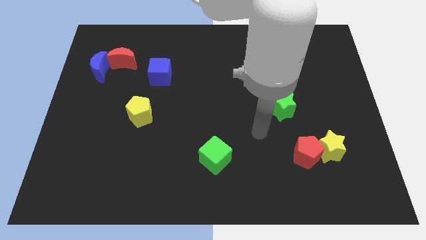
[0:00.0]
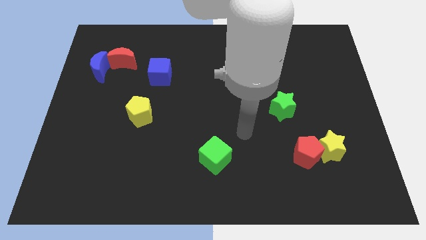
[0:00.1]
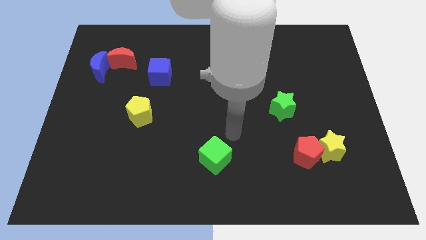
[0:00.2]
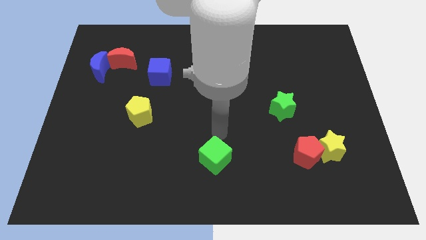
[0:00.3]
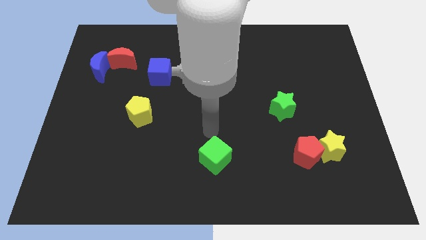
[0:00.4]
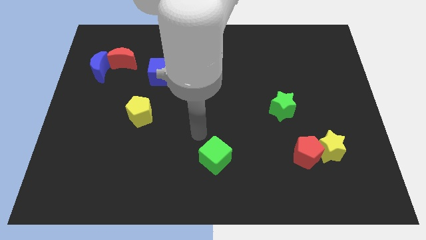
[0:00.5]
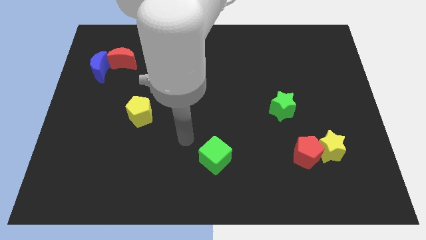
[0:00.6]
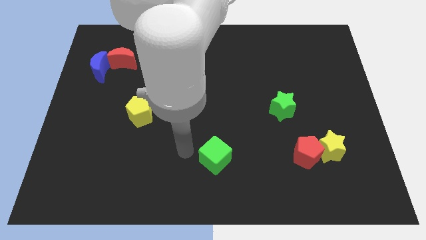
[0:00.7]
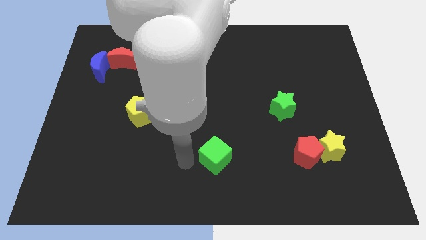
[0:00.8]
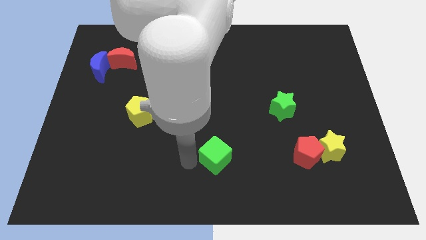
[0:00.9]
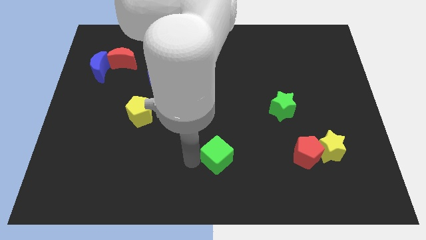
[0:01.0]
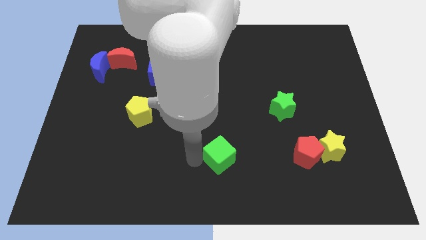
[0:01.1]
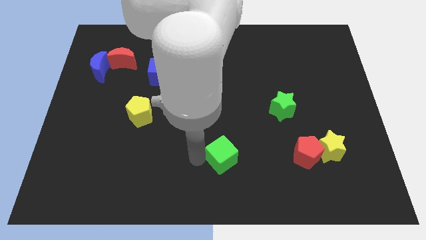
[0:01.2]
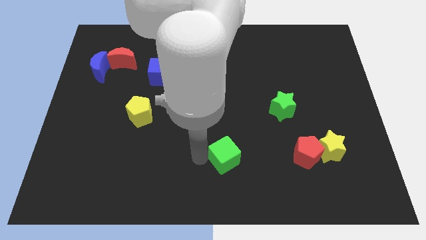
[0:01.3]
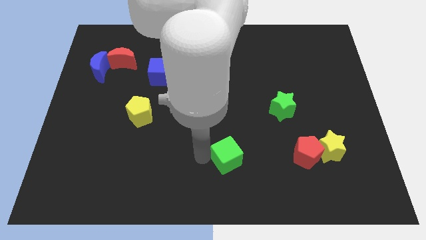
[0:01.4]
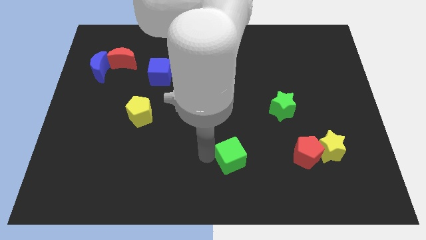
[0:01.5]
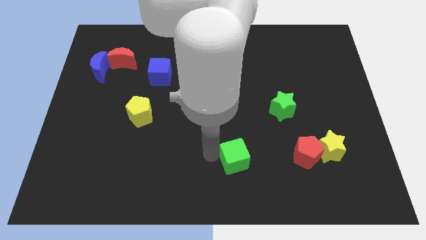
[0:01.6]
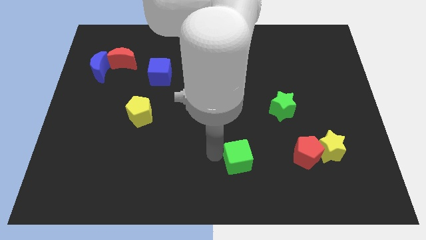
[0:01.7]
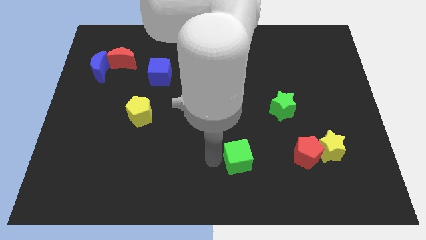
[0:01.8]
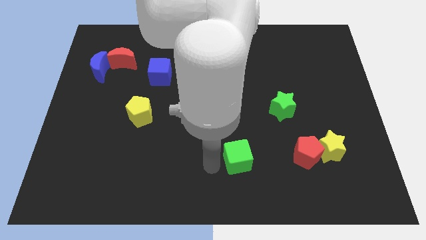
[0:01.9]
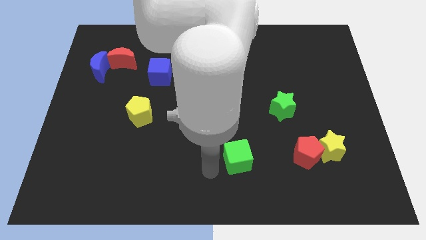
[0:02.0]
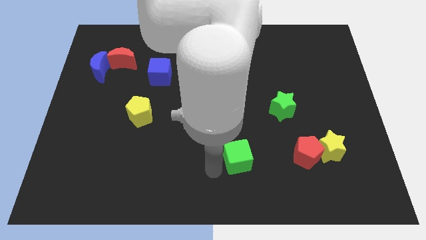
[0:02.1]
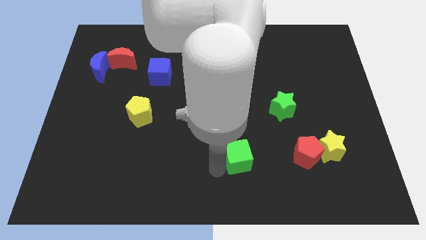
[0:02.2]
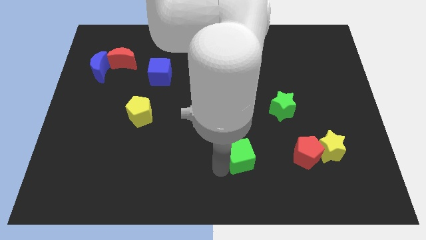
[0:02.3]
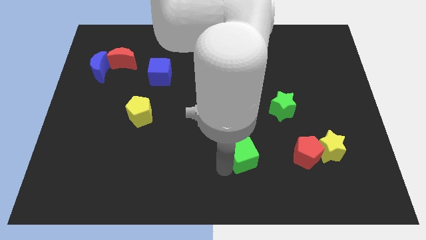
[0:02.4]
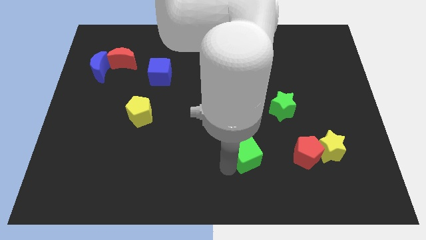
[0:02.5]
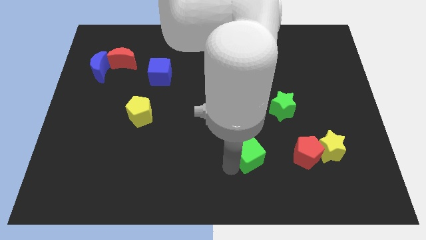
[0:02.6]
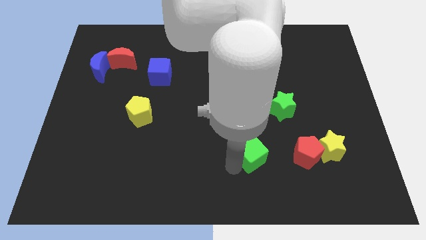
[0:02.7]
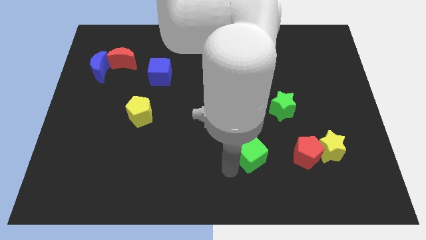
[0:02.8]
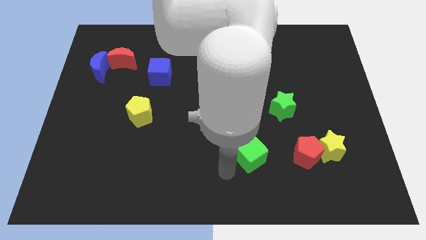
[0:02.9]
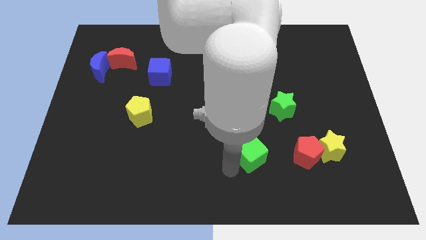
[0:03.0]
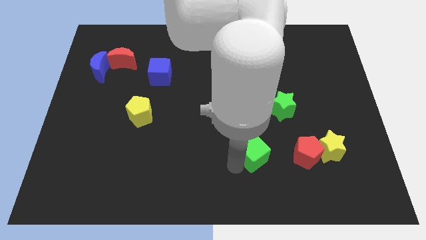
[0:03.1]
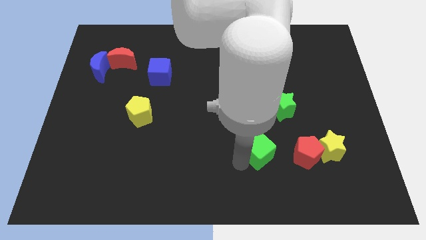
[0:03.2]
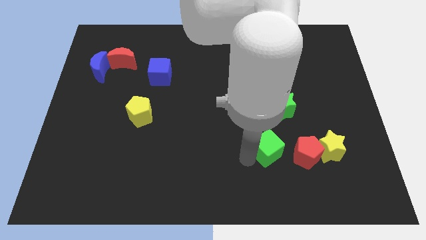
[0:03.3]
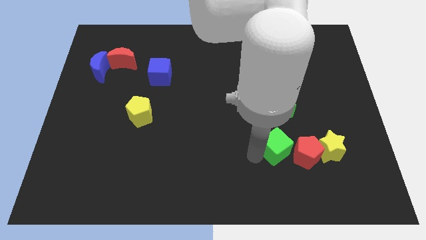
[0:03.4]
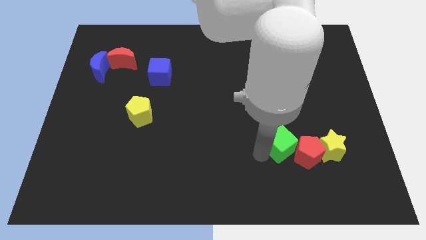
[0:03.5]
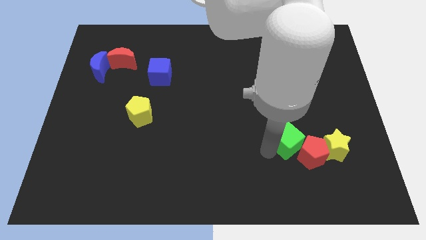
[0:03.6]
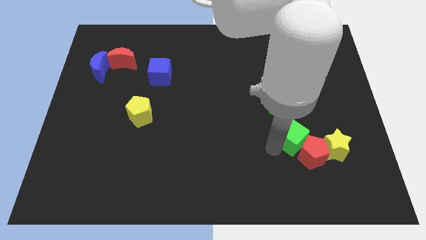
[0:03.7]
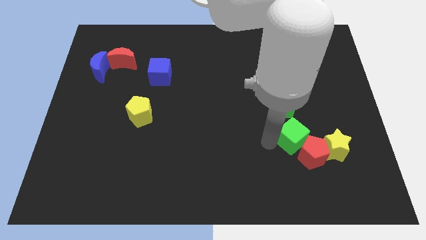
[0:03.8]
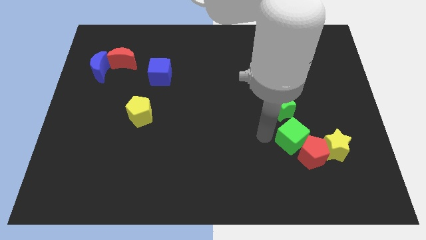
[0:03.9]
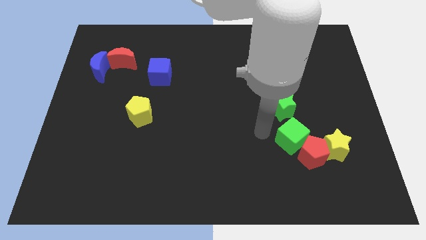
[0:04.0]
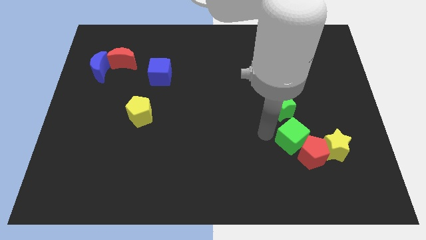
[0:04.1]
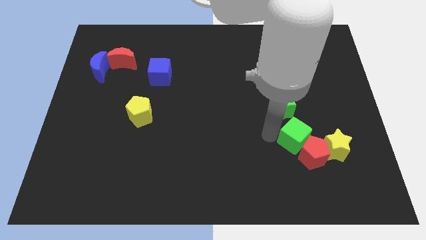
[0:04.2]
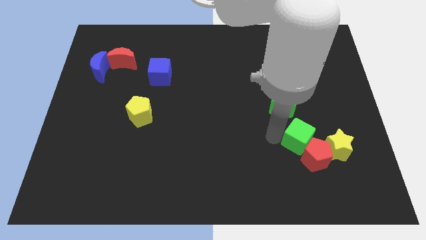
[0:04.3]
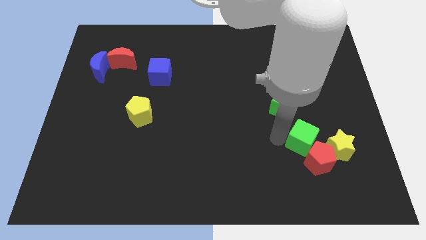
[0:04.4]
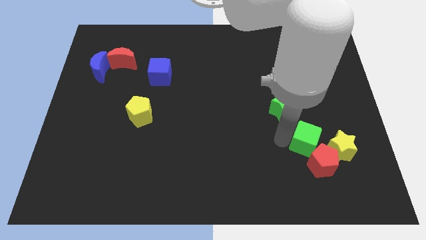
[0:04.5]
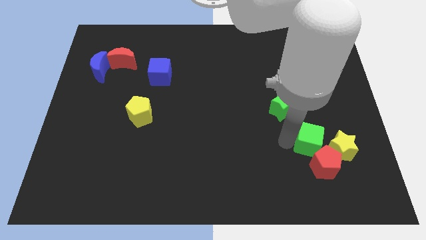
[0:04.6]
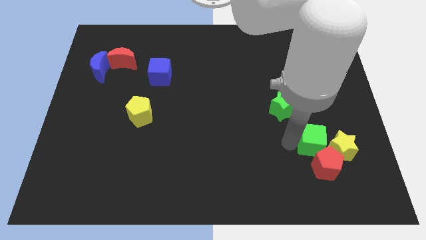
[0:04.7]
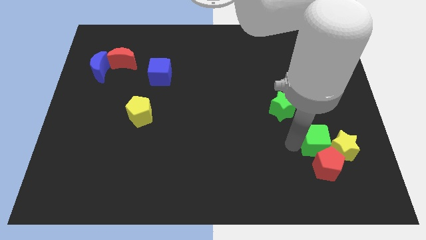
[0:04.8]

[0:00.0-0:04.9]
push the green cube to the yellow star

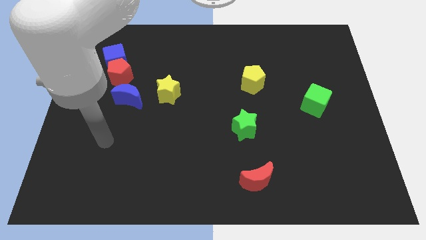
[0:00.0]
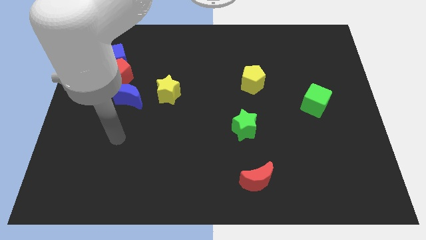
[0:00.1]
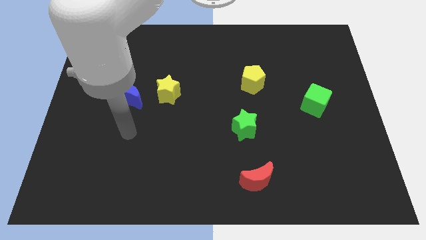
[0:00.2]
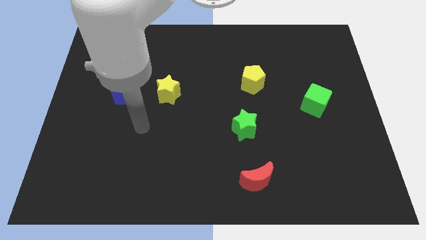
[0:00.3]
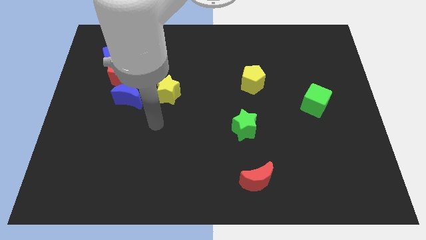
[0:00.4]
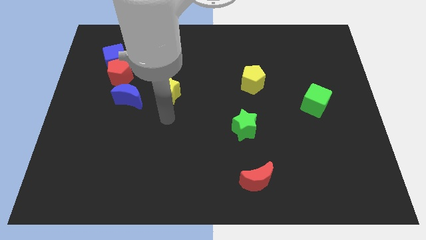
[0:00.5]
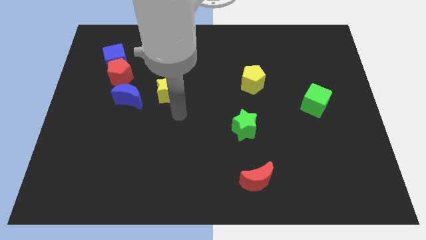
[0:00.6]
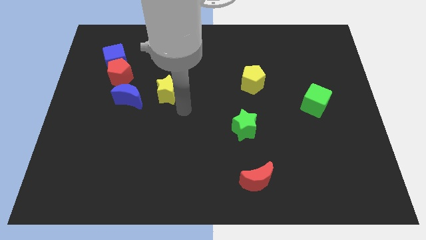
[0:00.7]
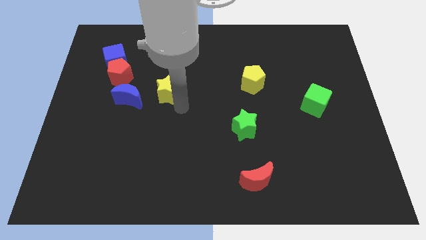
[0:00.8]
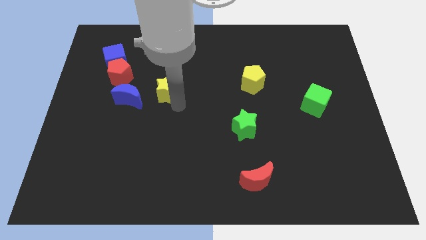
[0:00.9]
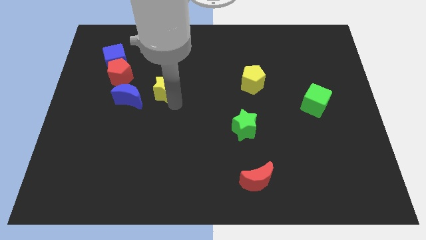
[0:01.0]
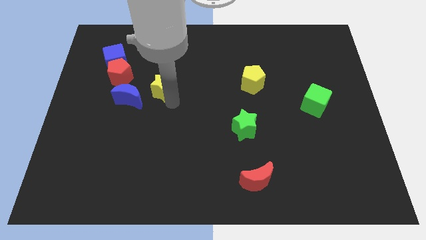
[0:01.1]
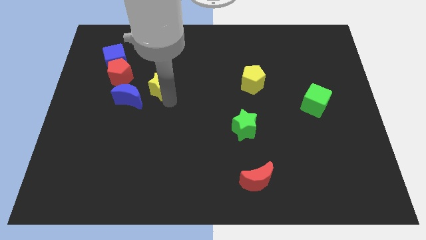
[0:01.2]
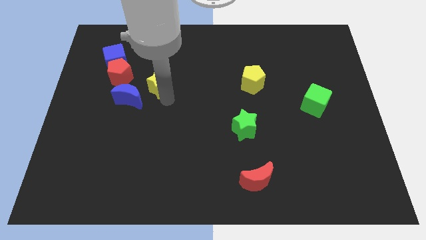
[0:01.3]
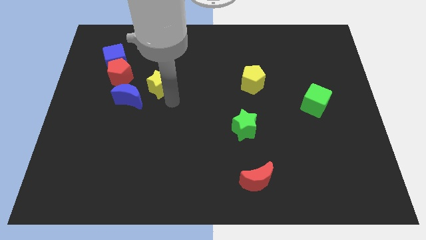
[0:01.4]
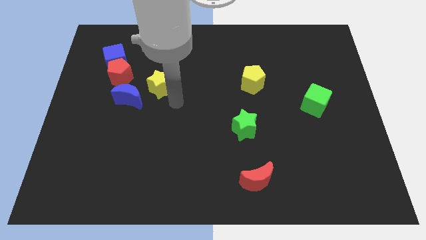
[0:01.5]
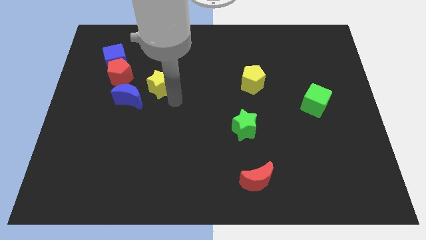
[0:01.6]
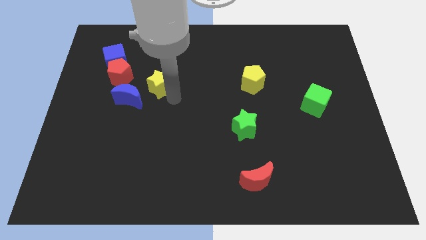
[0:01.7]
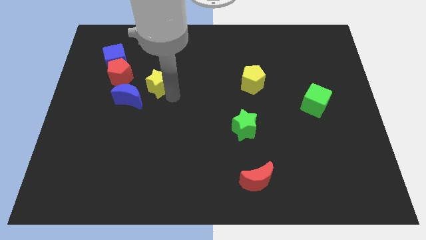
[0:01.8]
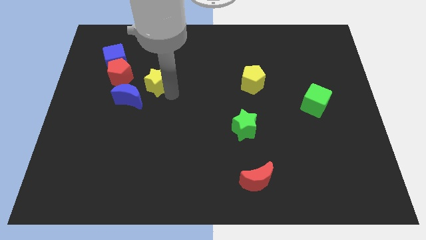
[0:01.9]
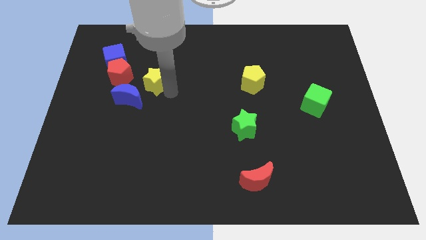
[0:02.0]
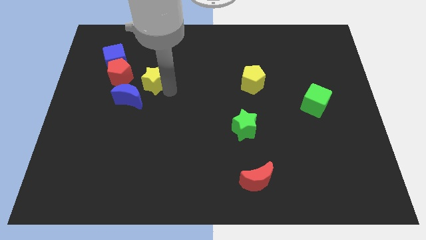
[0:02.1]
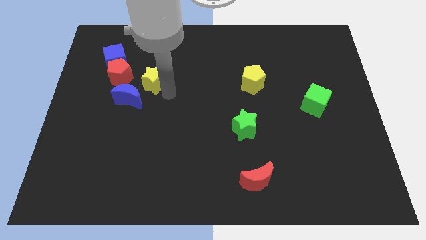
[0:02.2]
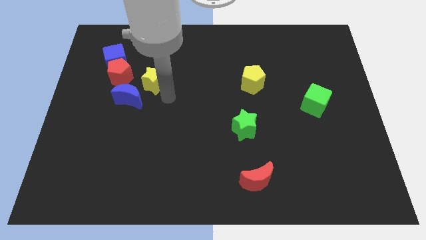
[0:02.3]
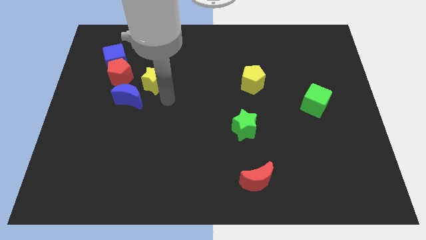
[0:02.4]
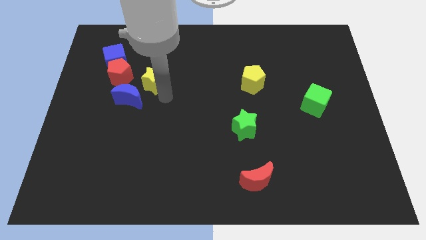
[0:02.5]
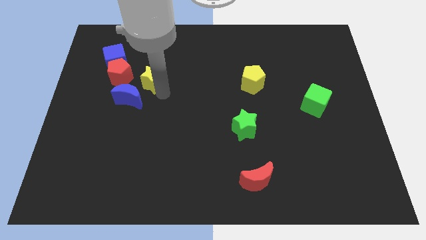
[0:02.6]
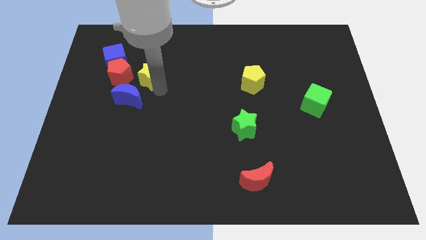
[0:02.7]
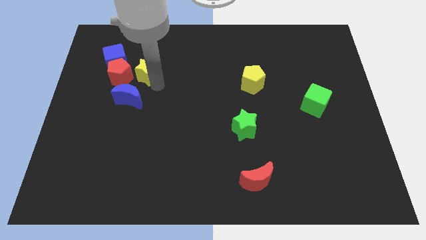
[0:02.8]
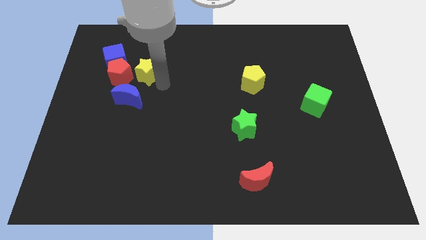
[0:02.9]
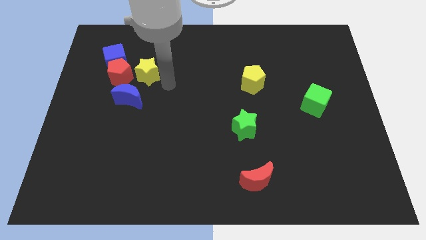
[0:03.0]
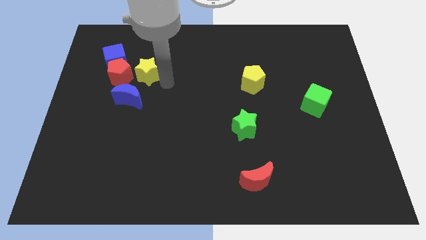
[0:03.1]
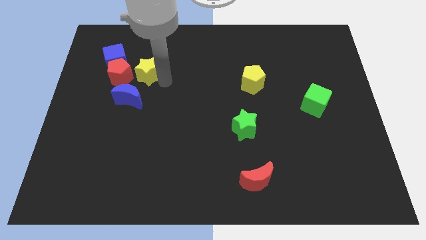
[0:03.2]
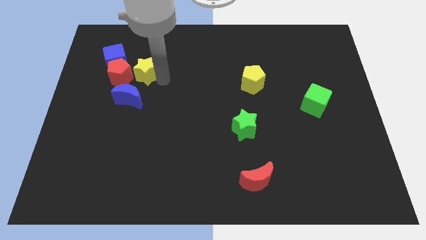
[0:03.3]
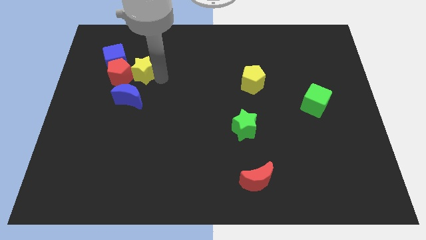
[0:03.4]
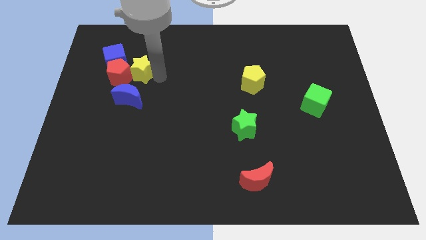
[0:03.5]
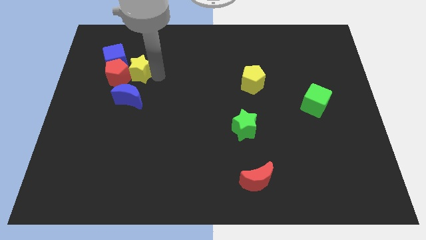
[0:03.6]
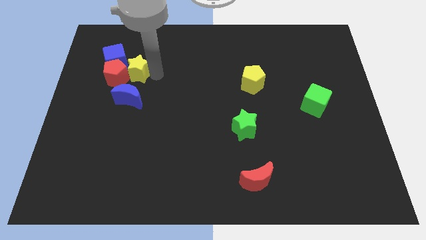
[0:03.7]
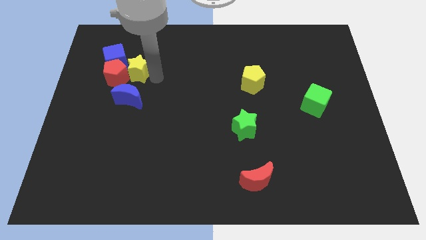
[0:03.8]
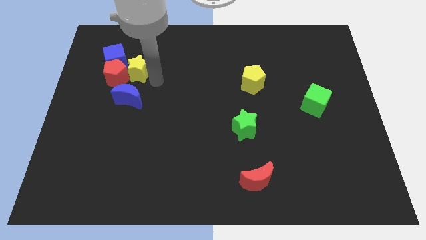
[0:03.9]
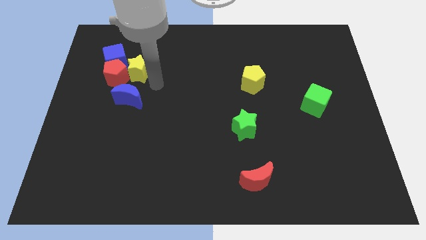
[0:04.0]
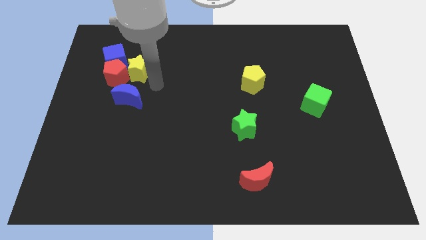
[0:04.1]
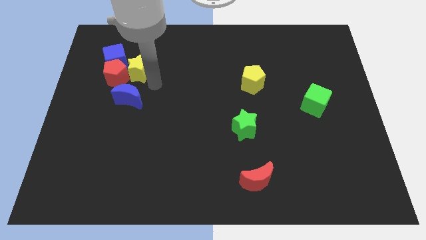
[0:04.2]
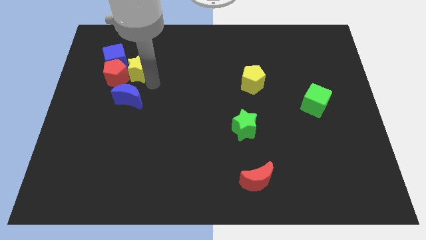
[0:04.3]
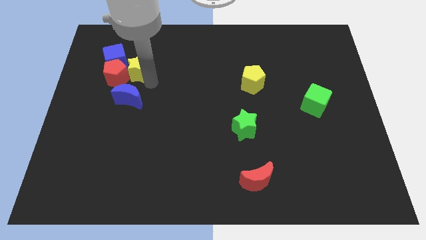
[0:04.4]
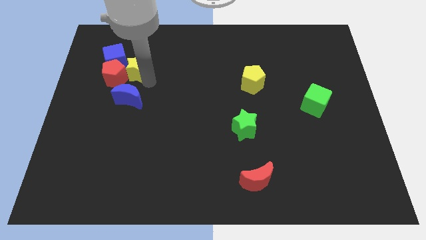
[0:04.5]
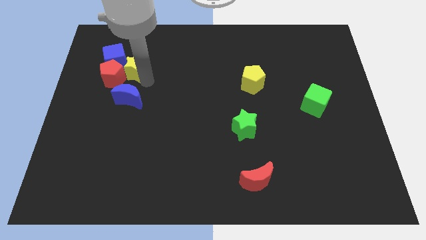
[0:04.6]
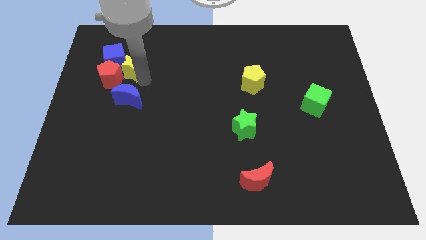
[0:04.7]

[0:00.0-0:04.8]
push the yellow star to the blue cube
